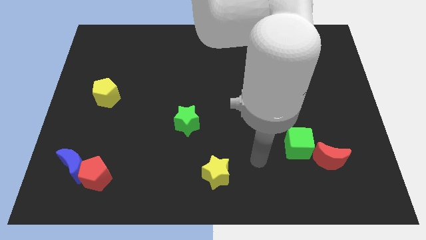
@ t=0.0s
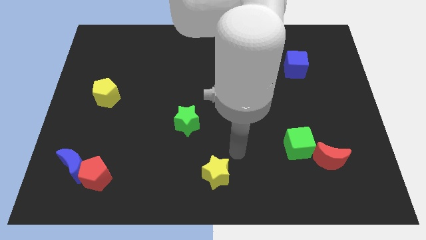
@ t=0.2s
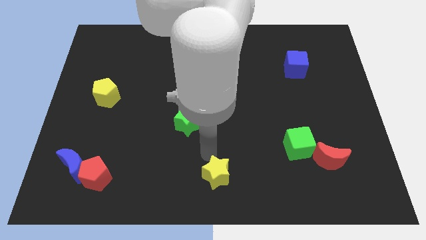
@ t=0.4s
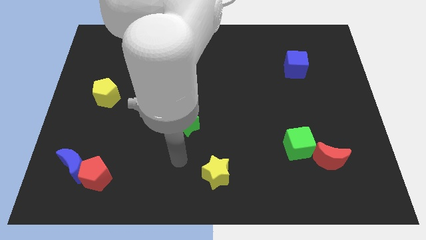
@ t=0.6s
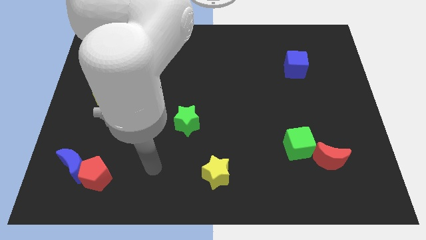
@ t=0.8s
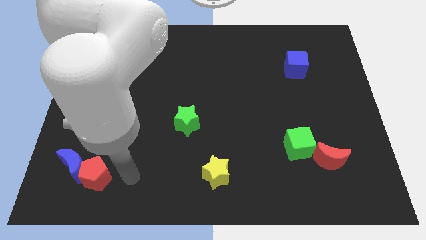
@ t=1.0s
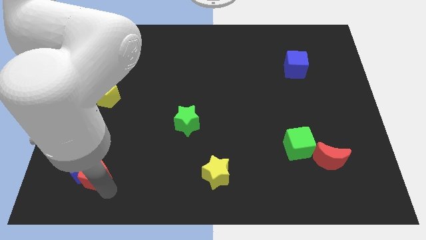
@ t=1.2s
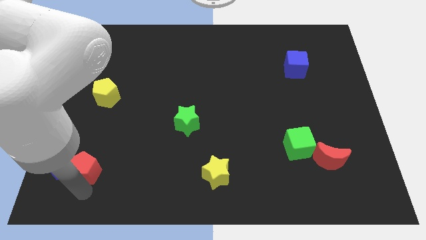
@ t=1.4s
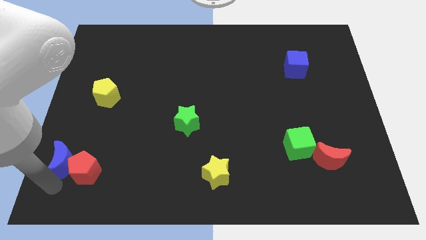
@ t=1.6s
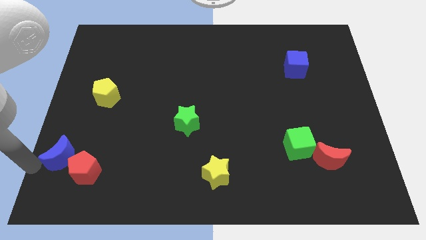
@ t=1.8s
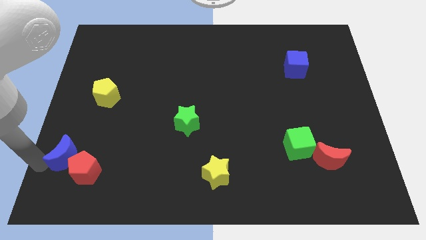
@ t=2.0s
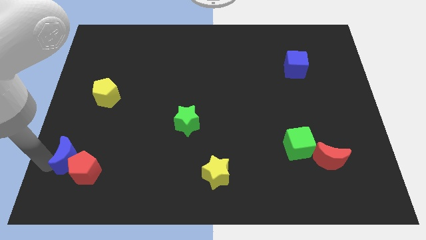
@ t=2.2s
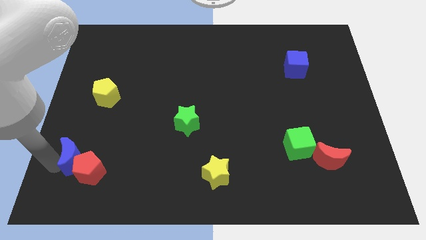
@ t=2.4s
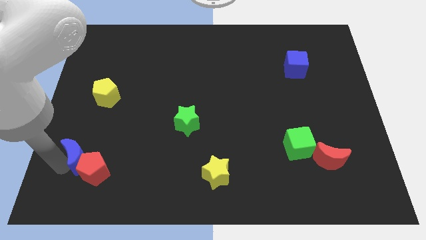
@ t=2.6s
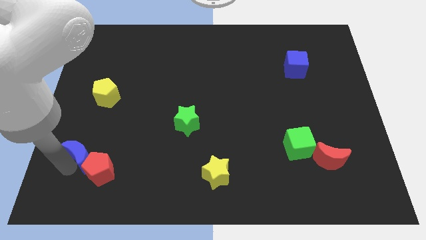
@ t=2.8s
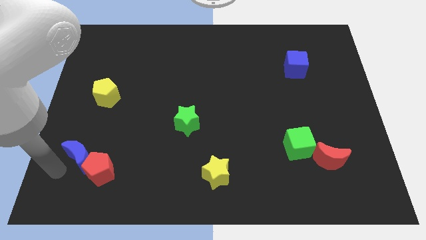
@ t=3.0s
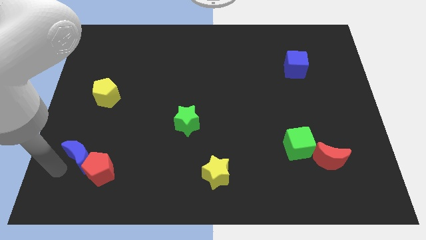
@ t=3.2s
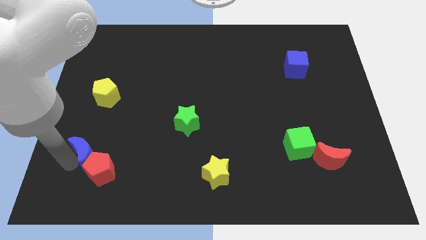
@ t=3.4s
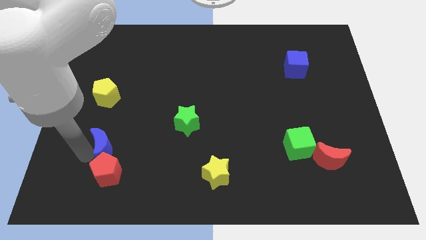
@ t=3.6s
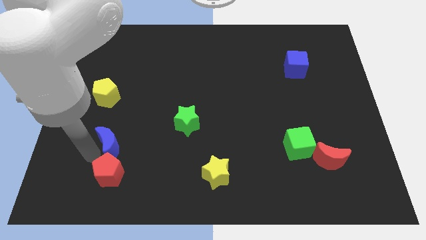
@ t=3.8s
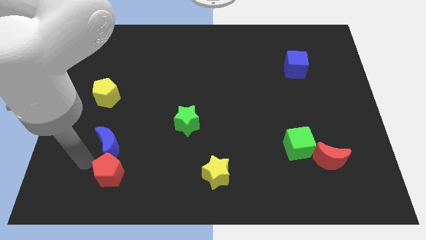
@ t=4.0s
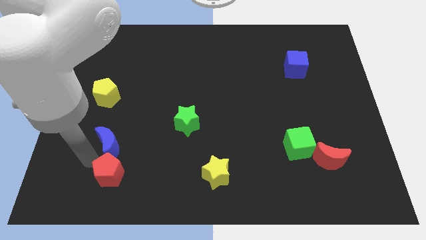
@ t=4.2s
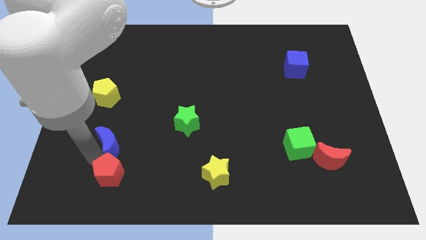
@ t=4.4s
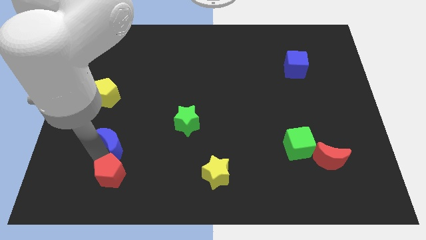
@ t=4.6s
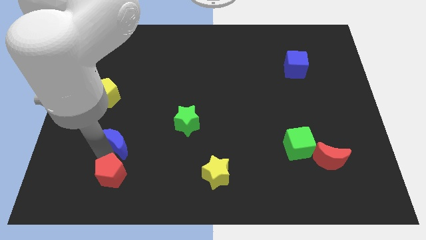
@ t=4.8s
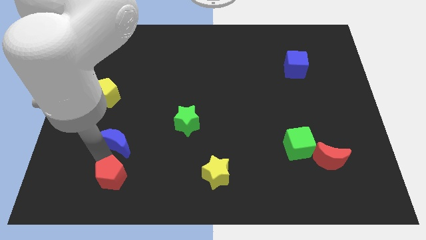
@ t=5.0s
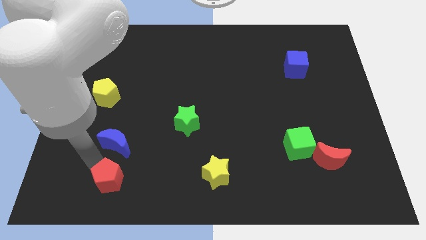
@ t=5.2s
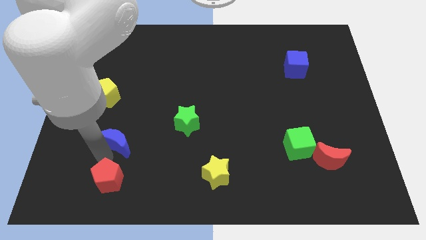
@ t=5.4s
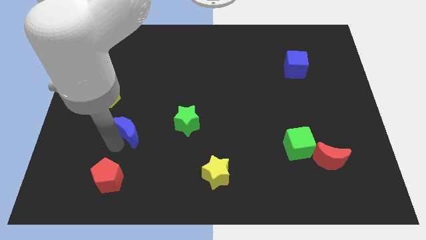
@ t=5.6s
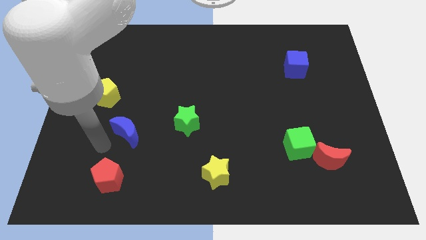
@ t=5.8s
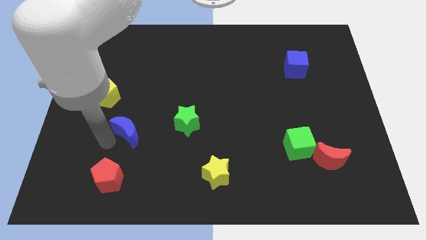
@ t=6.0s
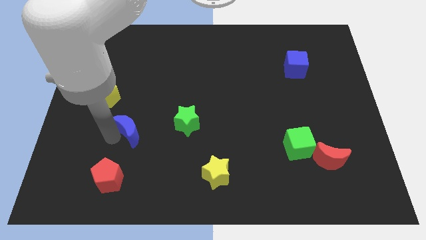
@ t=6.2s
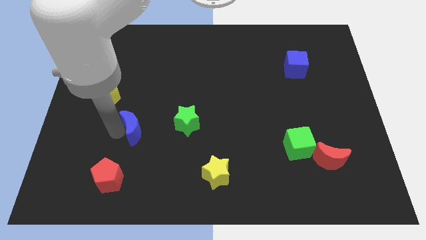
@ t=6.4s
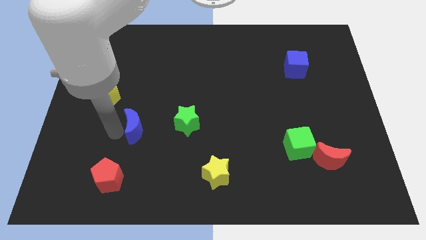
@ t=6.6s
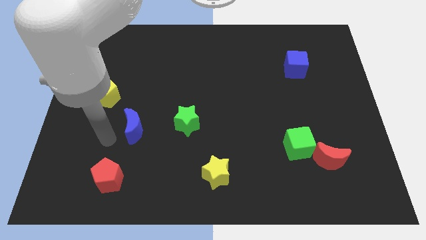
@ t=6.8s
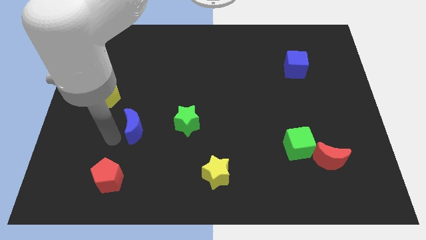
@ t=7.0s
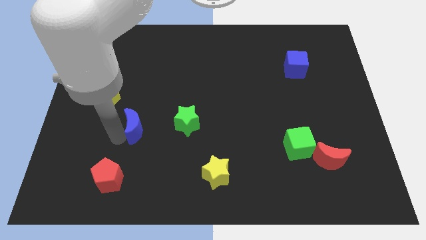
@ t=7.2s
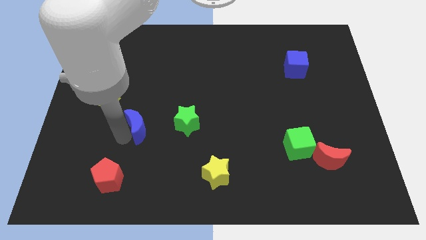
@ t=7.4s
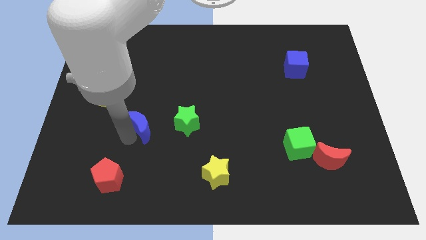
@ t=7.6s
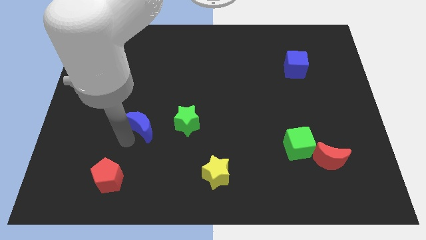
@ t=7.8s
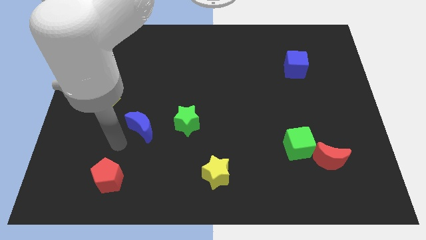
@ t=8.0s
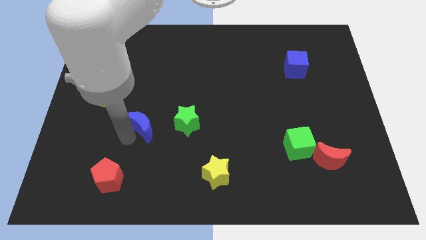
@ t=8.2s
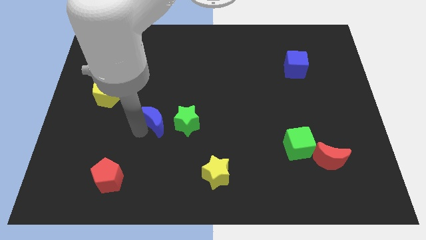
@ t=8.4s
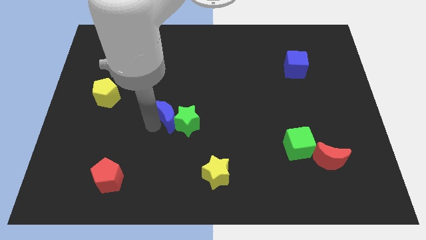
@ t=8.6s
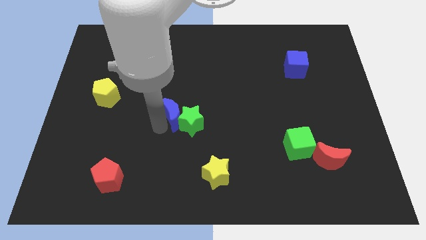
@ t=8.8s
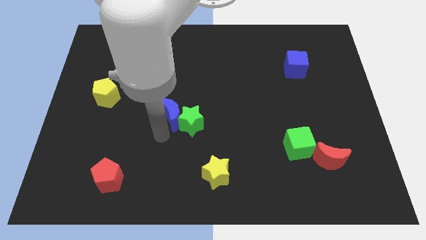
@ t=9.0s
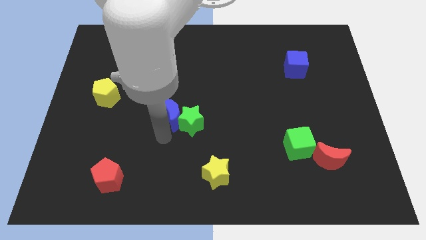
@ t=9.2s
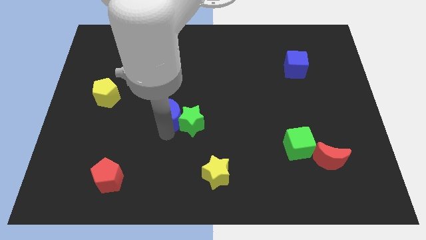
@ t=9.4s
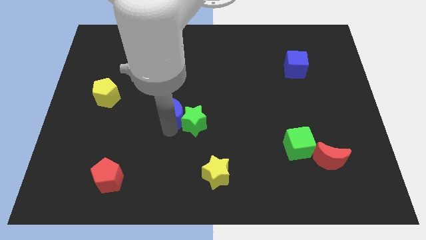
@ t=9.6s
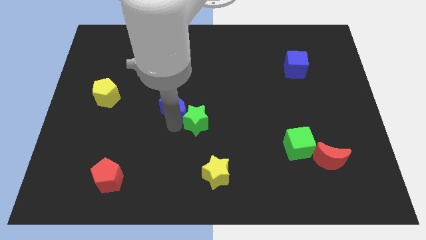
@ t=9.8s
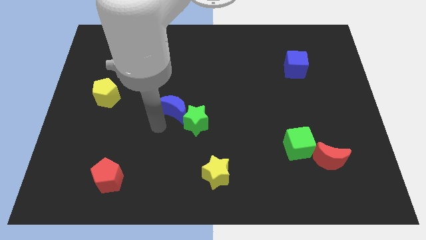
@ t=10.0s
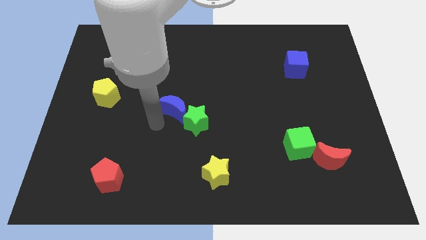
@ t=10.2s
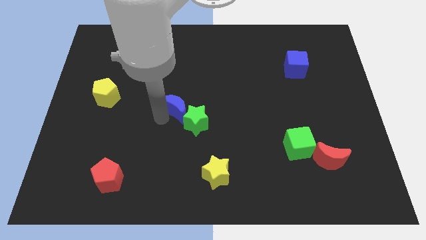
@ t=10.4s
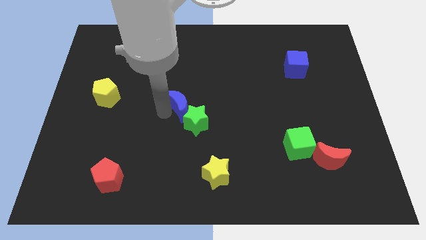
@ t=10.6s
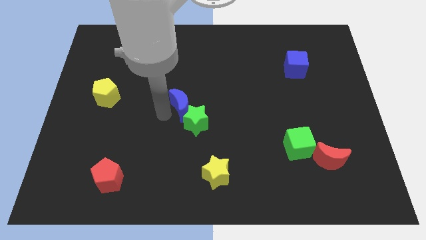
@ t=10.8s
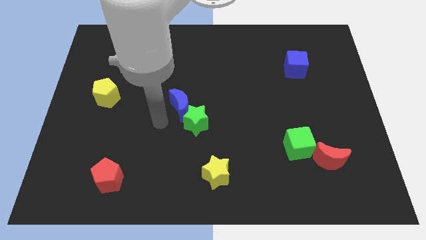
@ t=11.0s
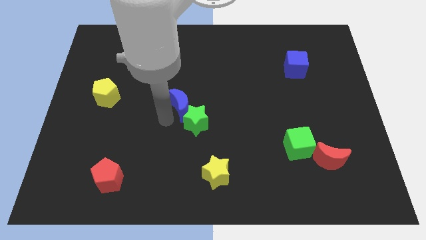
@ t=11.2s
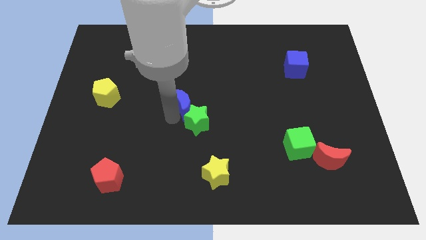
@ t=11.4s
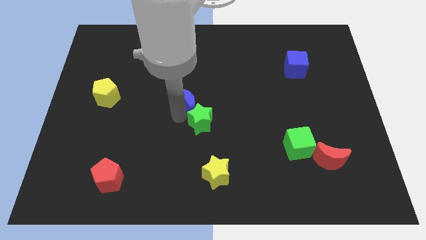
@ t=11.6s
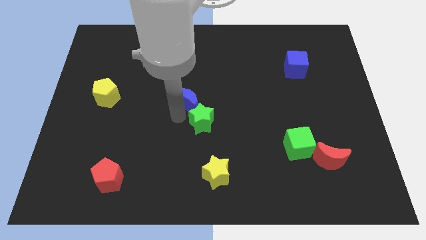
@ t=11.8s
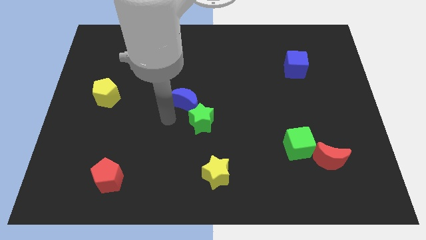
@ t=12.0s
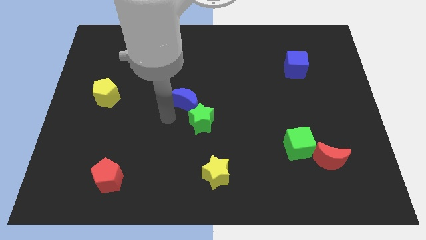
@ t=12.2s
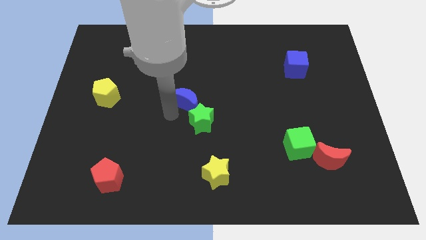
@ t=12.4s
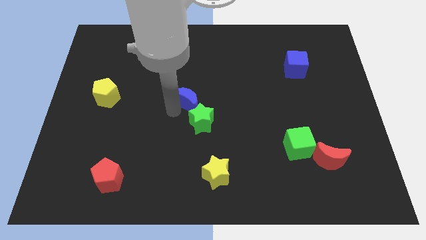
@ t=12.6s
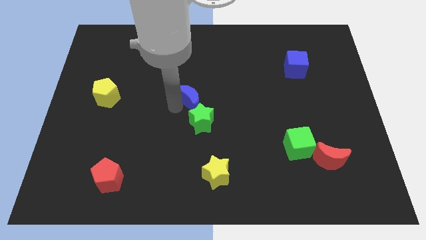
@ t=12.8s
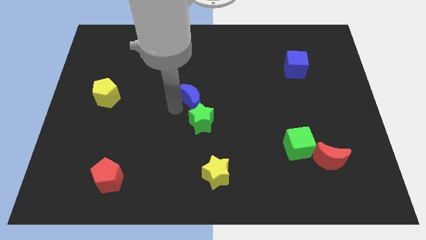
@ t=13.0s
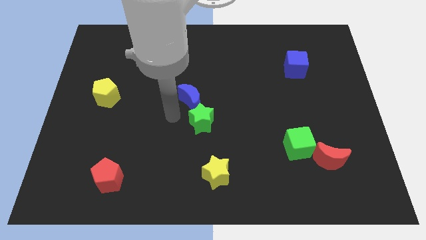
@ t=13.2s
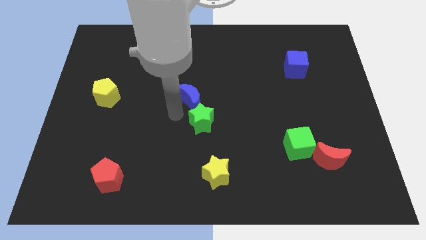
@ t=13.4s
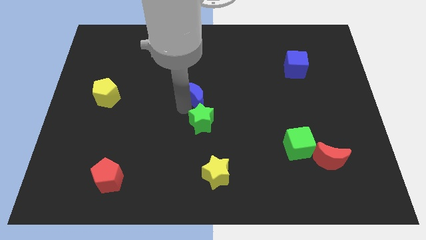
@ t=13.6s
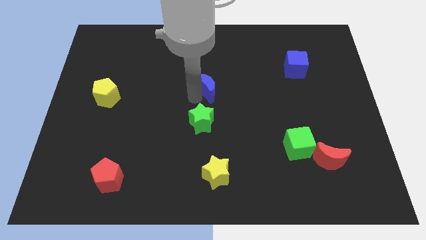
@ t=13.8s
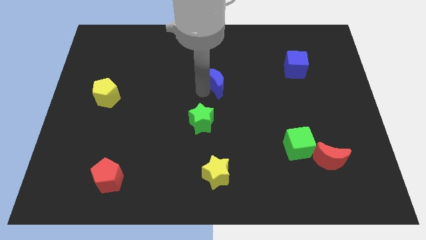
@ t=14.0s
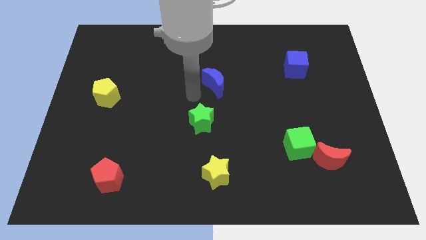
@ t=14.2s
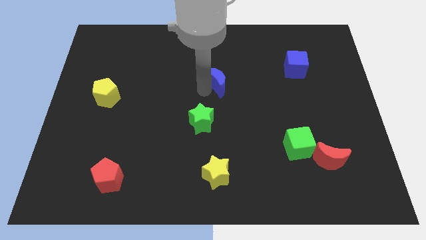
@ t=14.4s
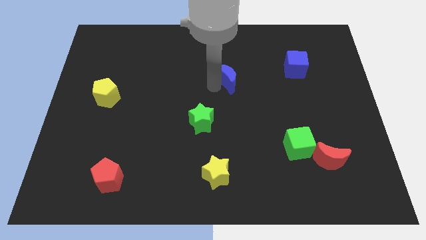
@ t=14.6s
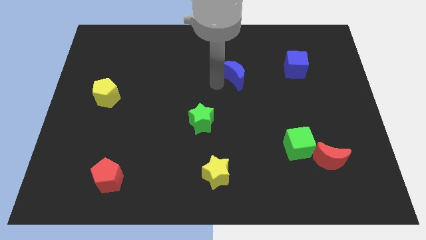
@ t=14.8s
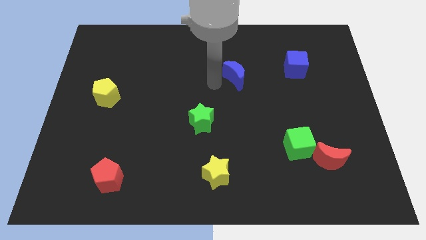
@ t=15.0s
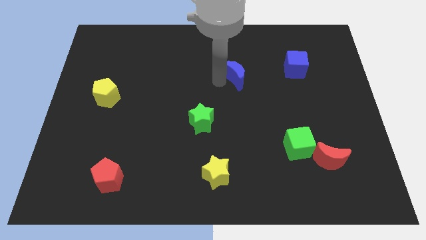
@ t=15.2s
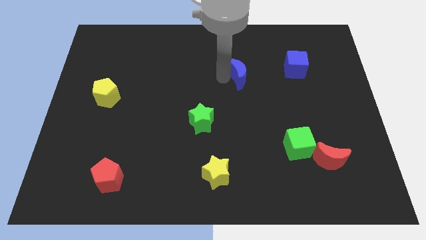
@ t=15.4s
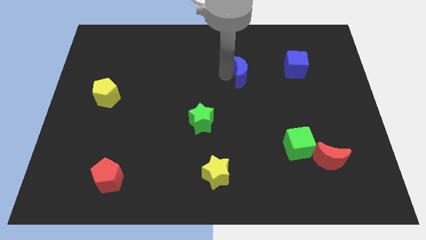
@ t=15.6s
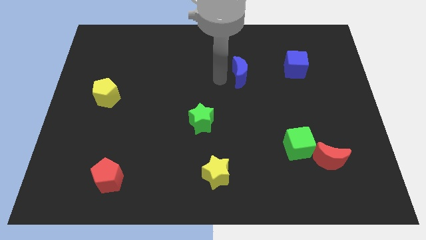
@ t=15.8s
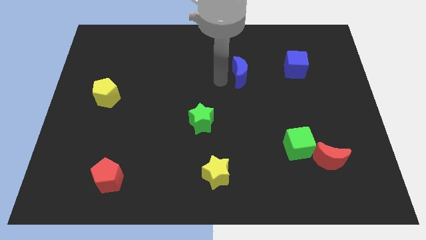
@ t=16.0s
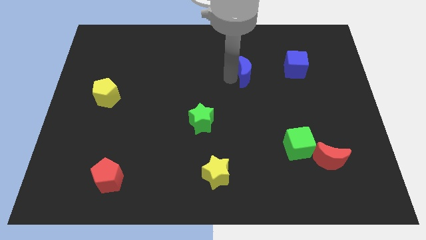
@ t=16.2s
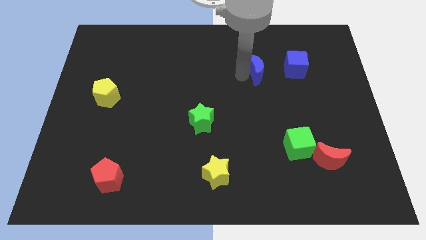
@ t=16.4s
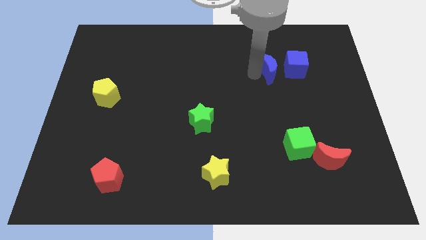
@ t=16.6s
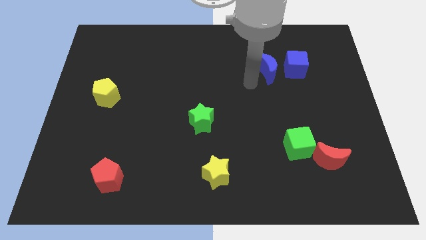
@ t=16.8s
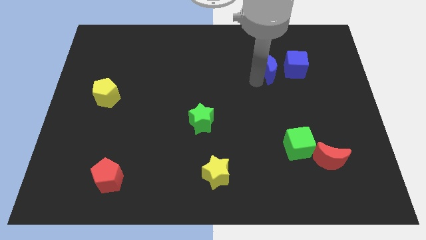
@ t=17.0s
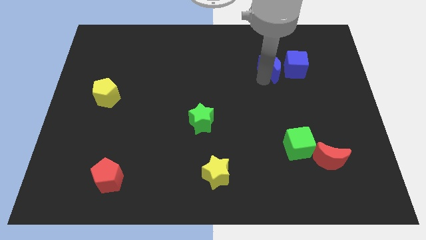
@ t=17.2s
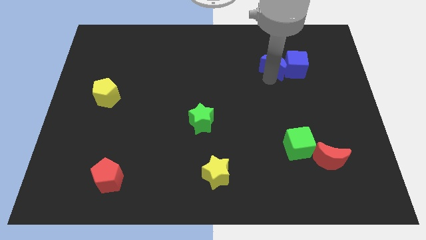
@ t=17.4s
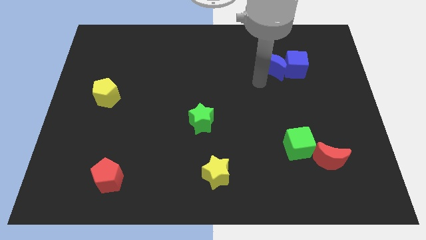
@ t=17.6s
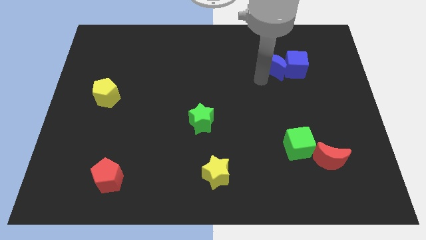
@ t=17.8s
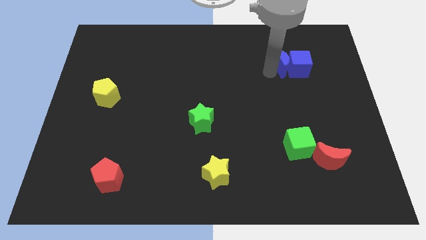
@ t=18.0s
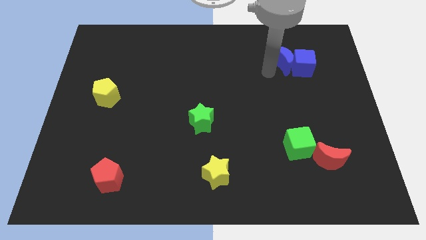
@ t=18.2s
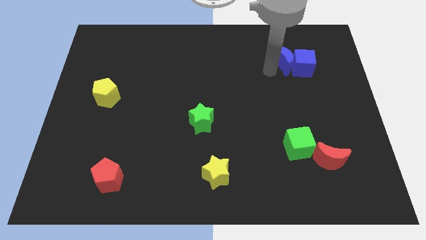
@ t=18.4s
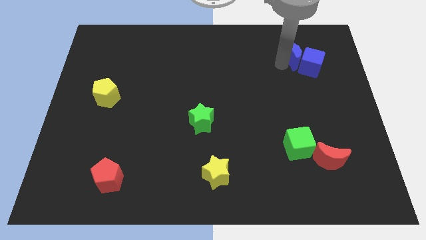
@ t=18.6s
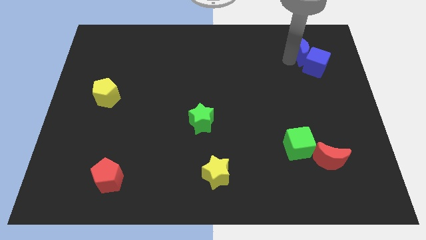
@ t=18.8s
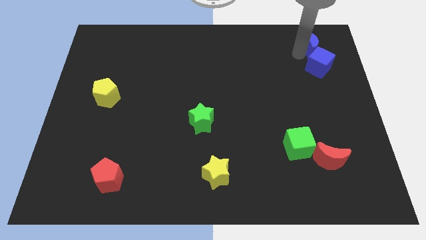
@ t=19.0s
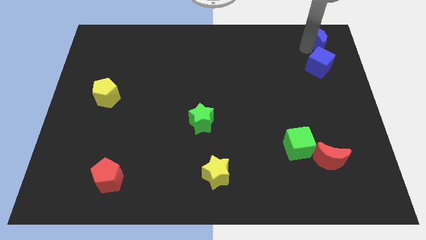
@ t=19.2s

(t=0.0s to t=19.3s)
push the blue moon to the top right of the board
